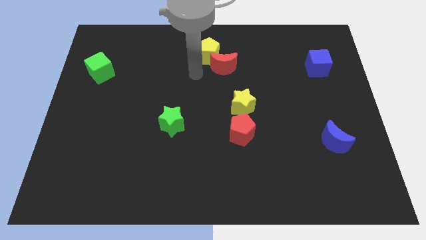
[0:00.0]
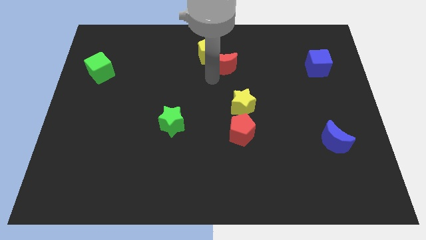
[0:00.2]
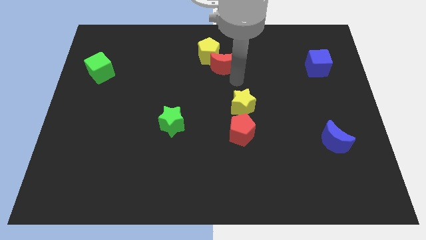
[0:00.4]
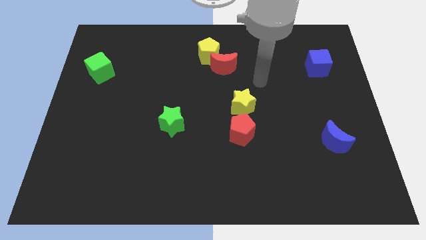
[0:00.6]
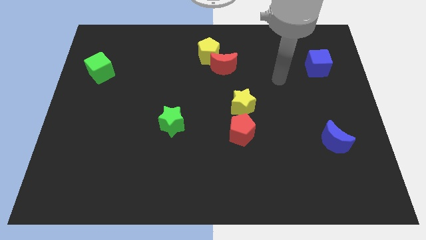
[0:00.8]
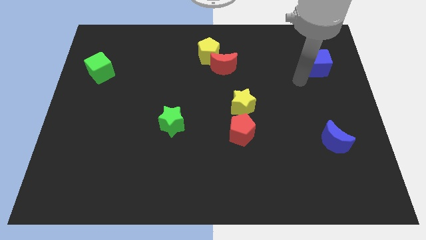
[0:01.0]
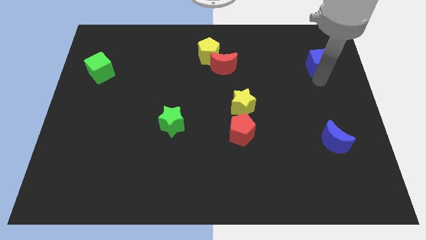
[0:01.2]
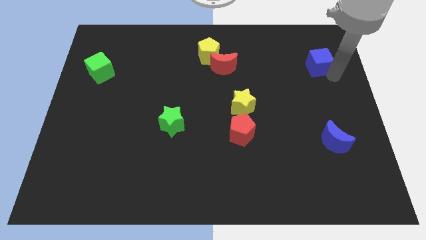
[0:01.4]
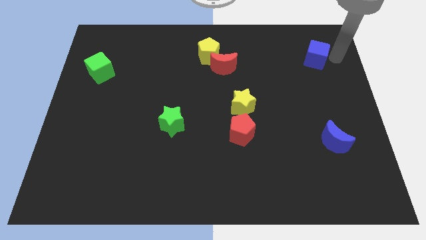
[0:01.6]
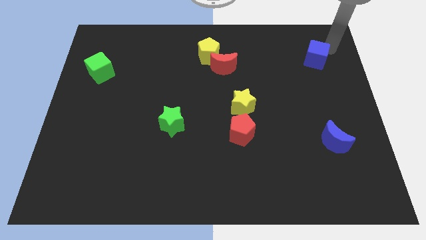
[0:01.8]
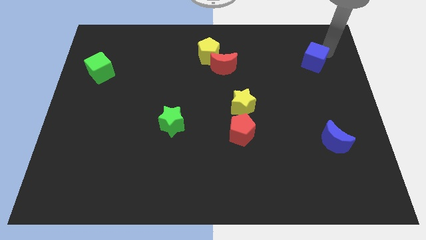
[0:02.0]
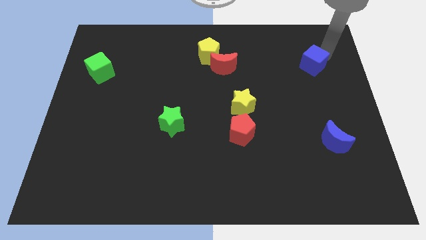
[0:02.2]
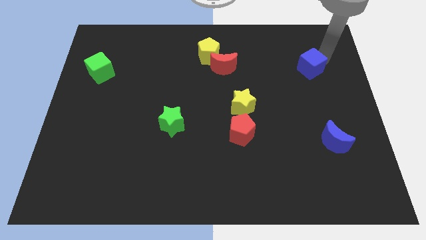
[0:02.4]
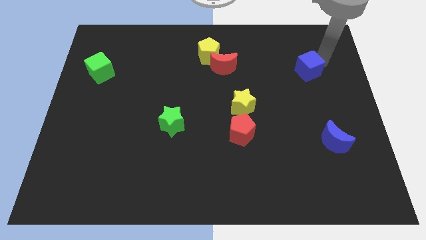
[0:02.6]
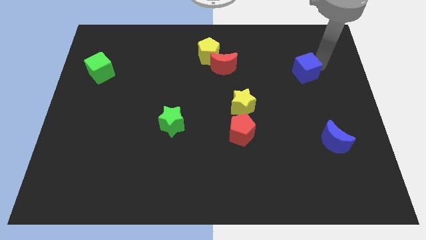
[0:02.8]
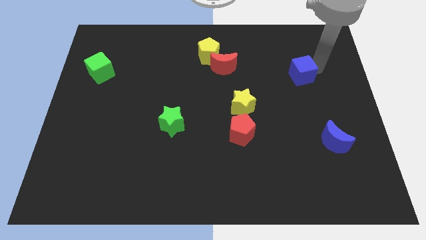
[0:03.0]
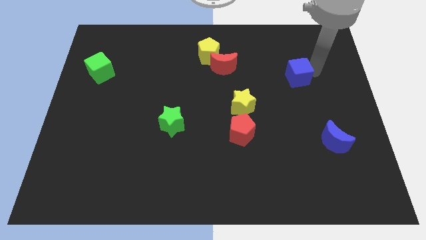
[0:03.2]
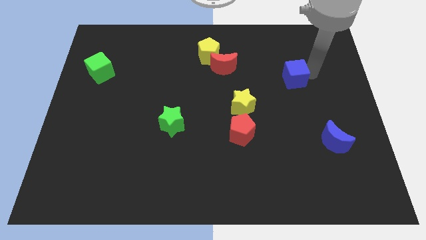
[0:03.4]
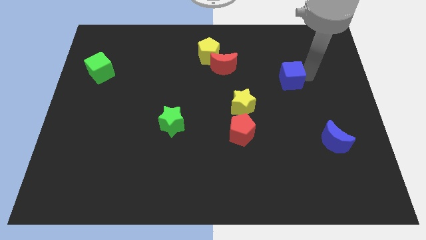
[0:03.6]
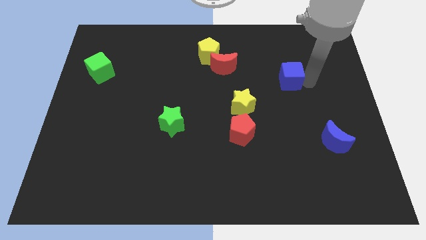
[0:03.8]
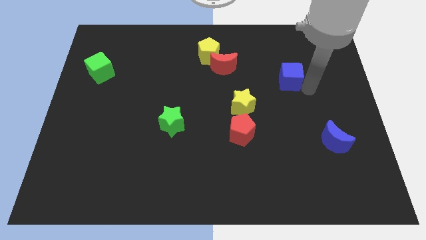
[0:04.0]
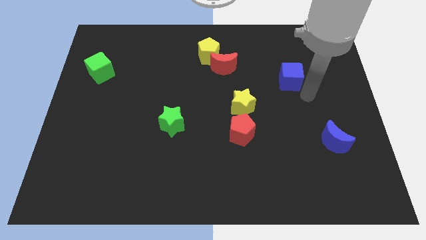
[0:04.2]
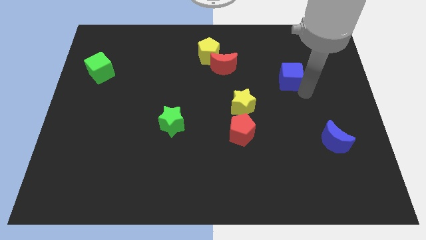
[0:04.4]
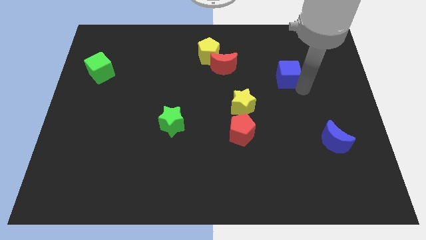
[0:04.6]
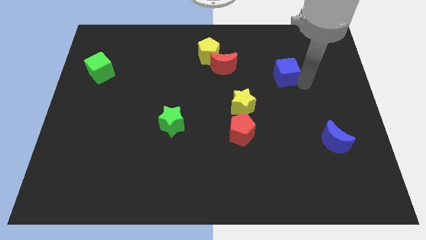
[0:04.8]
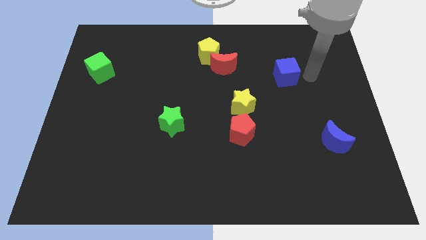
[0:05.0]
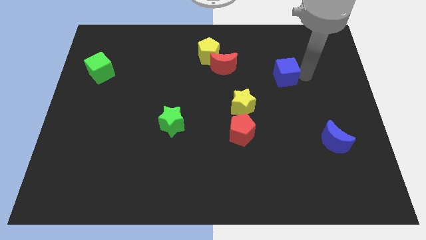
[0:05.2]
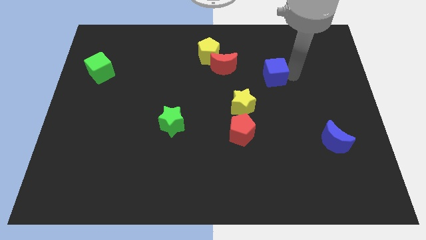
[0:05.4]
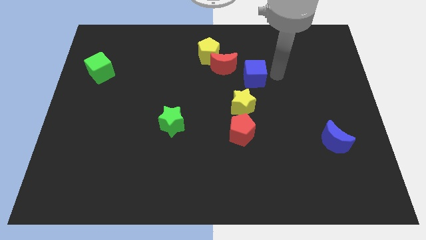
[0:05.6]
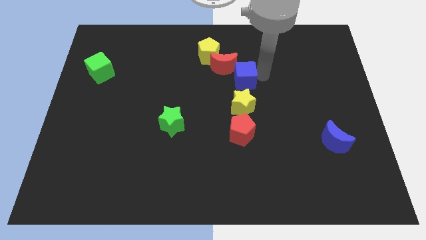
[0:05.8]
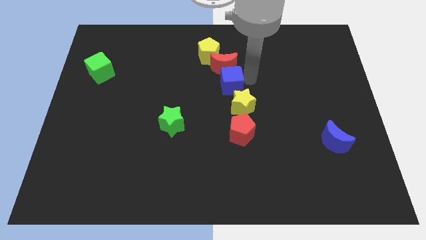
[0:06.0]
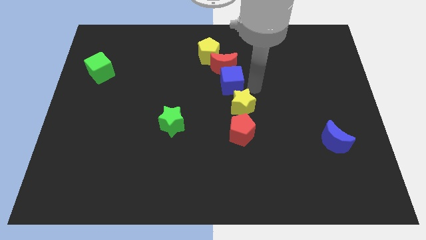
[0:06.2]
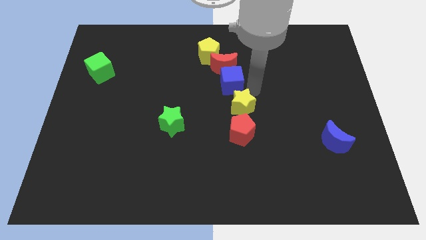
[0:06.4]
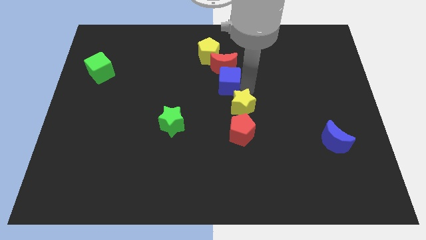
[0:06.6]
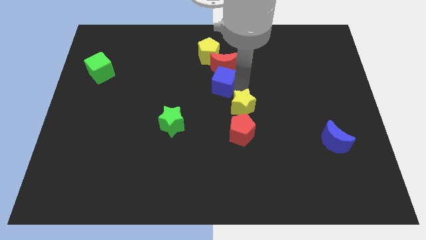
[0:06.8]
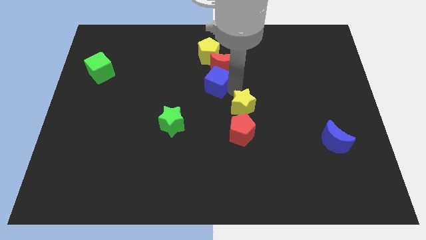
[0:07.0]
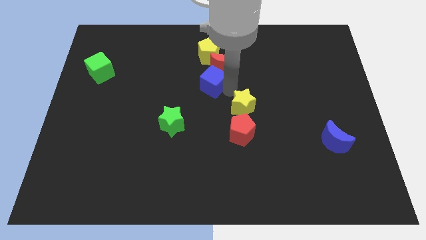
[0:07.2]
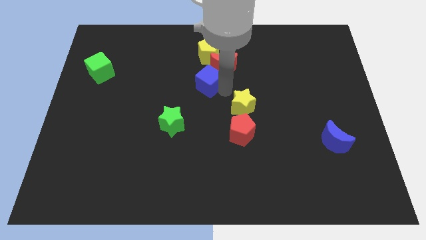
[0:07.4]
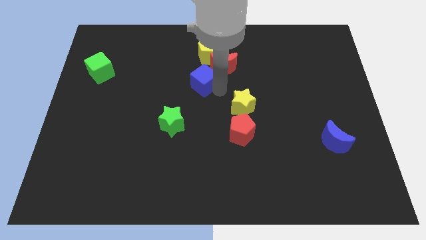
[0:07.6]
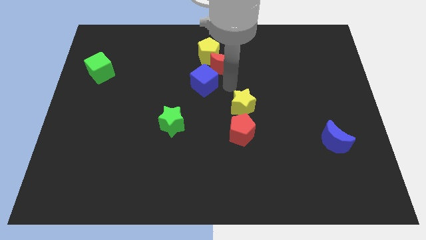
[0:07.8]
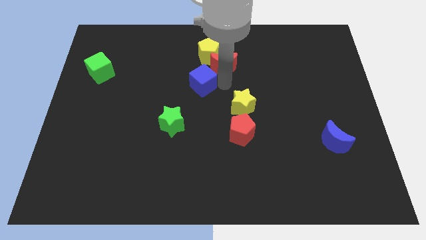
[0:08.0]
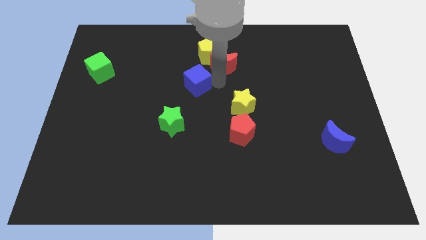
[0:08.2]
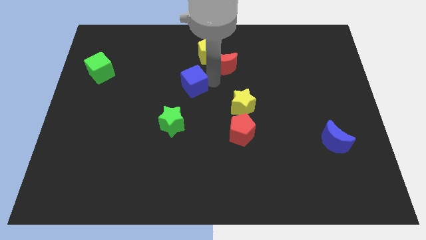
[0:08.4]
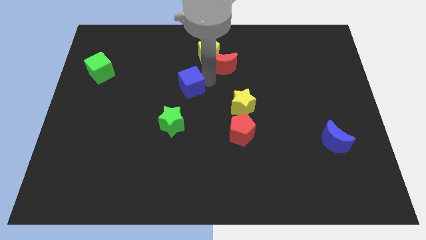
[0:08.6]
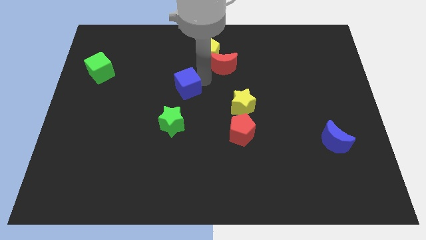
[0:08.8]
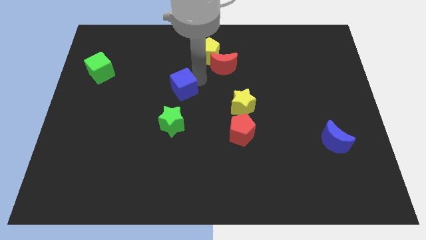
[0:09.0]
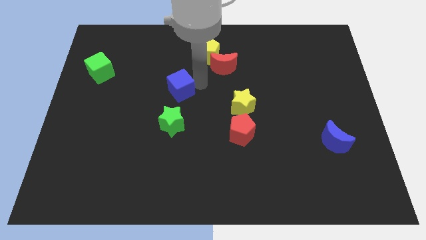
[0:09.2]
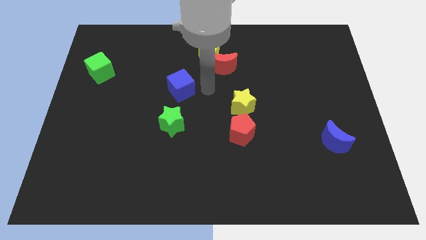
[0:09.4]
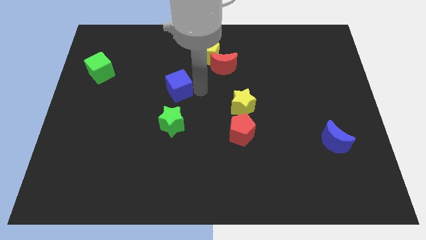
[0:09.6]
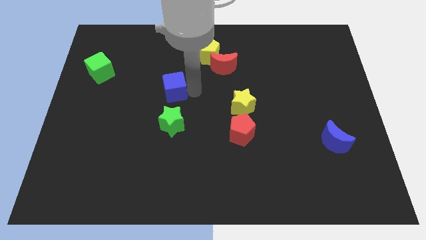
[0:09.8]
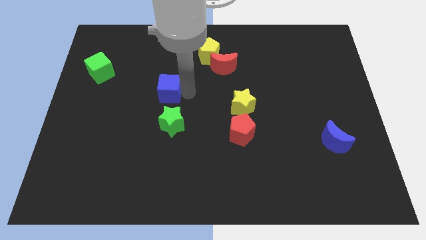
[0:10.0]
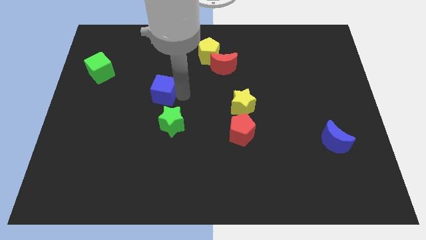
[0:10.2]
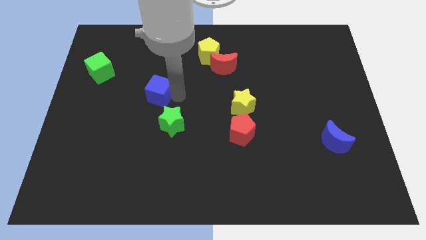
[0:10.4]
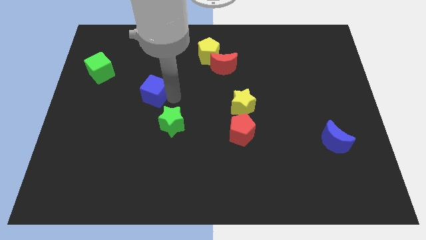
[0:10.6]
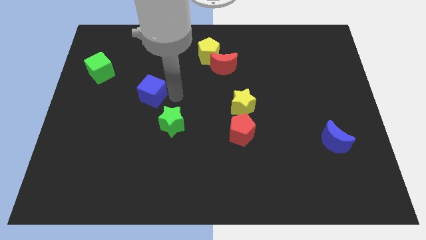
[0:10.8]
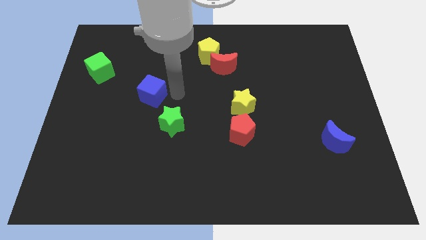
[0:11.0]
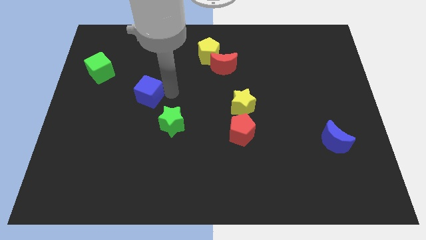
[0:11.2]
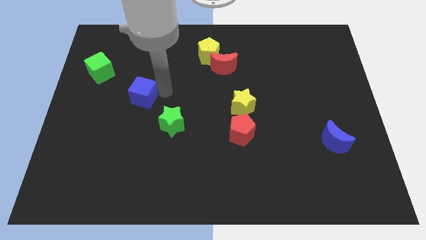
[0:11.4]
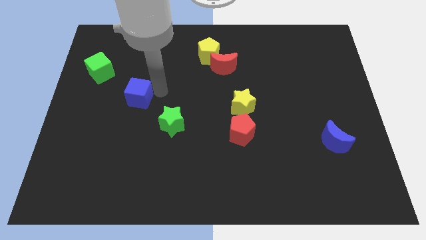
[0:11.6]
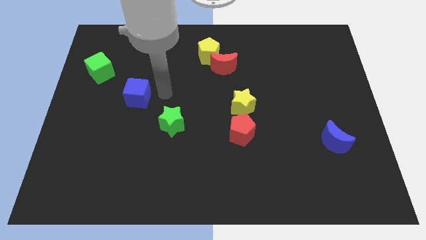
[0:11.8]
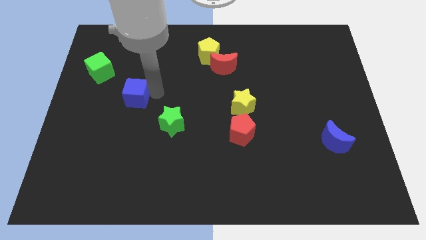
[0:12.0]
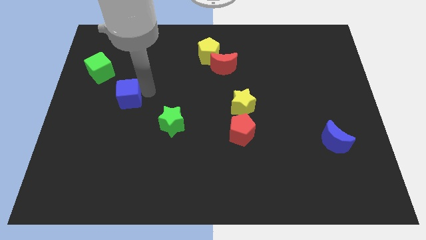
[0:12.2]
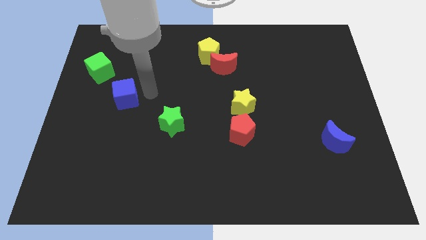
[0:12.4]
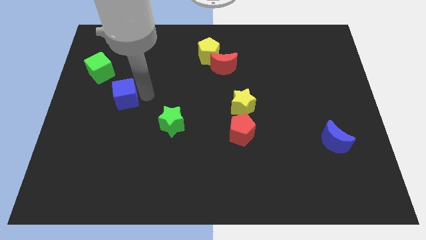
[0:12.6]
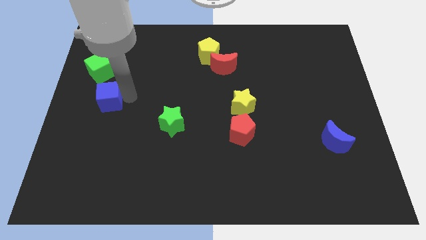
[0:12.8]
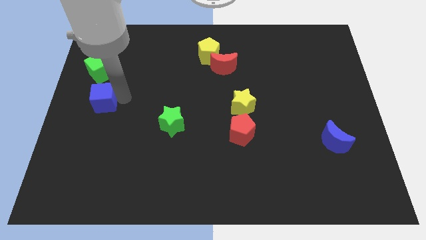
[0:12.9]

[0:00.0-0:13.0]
move the blue cube to the left side

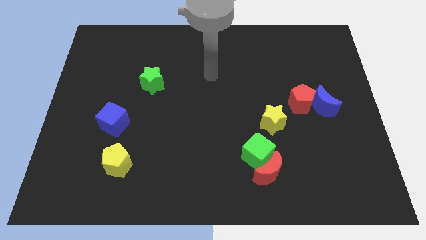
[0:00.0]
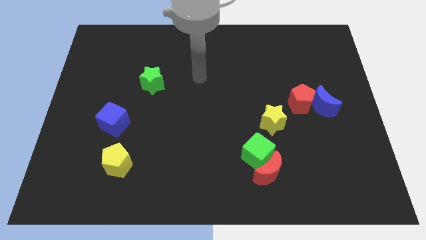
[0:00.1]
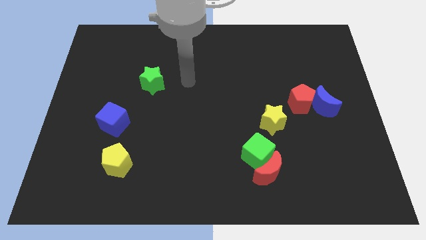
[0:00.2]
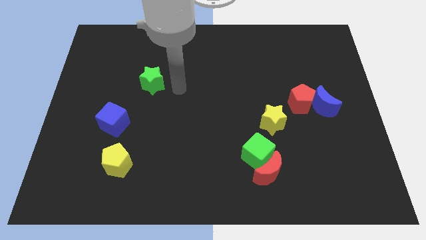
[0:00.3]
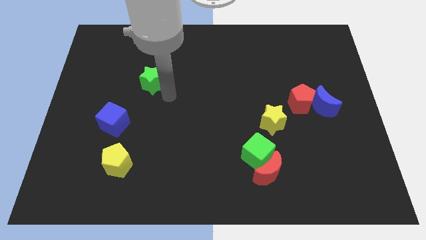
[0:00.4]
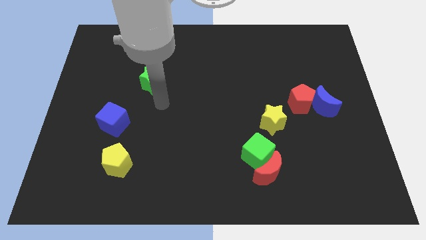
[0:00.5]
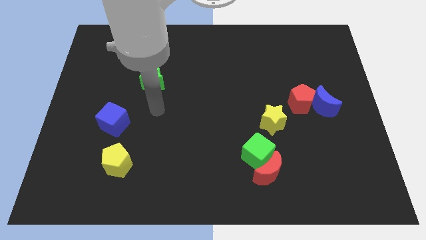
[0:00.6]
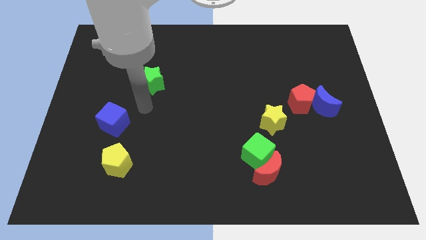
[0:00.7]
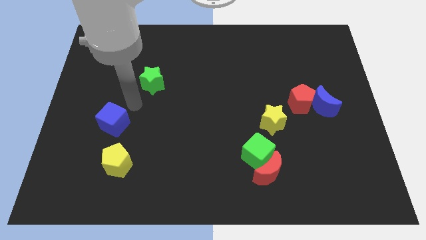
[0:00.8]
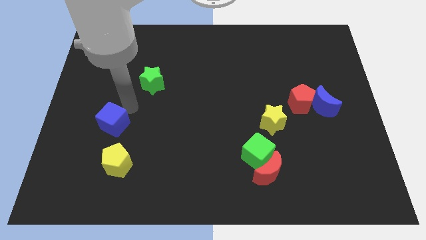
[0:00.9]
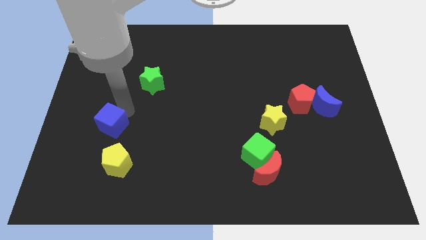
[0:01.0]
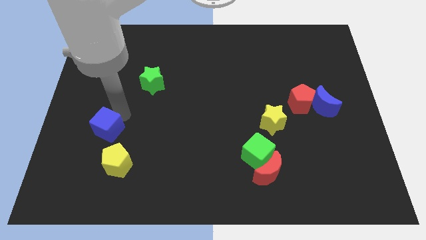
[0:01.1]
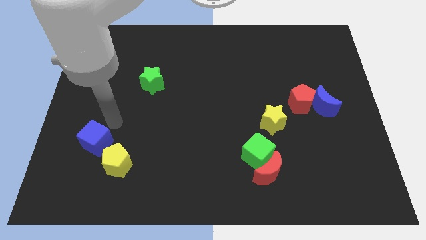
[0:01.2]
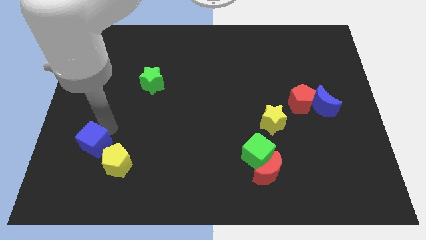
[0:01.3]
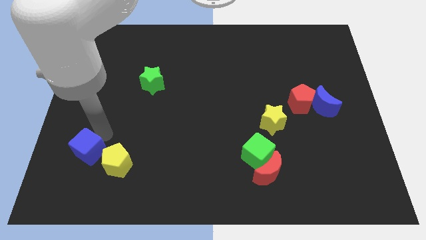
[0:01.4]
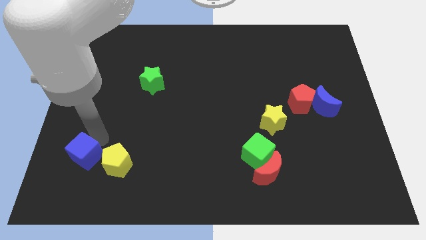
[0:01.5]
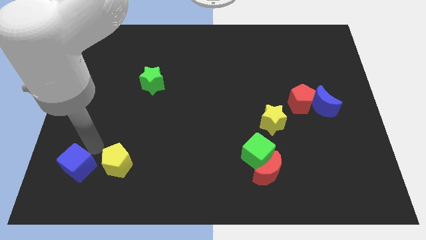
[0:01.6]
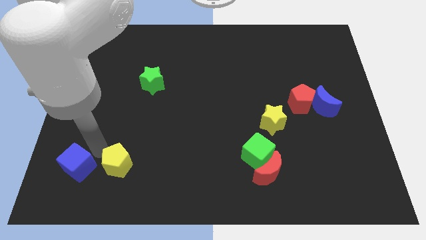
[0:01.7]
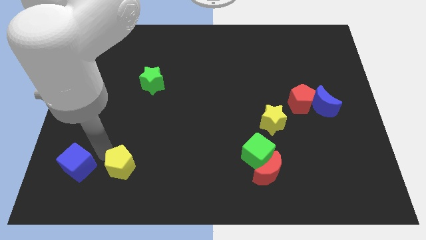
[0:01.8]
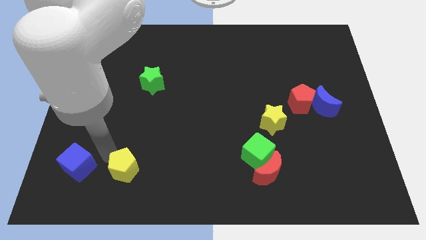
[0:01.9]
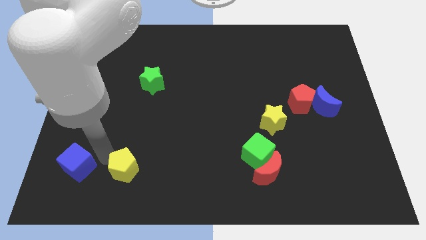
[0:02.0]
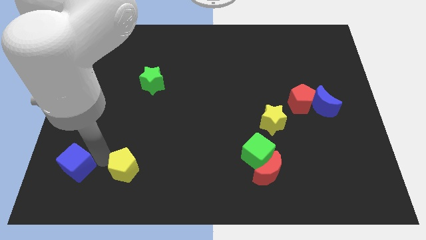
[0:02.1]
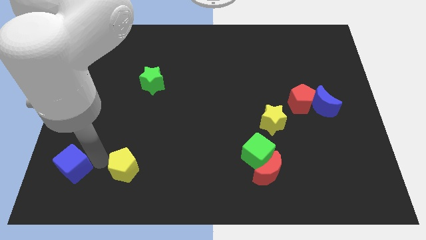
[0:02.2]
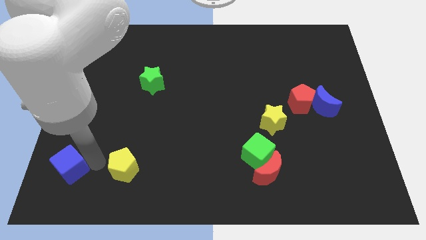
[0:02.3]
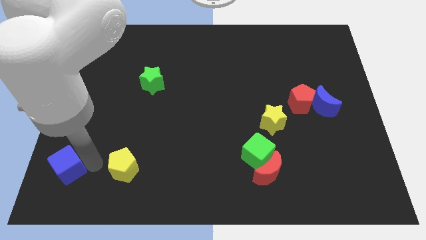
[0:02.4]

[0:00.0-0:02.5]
put the blue cube to the lower left corner
